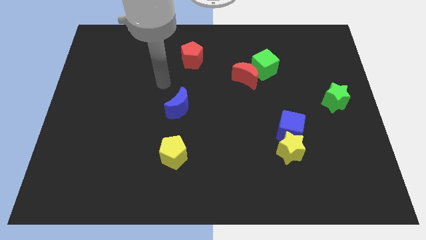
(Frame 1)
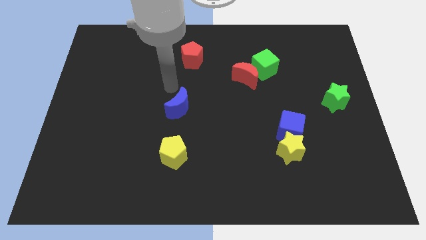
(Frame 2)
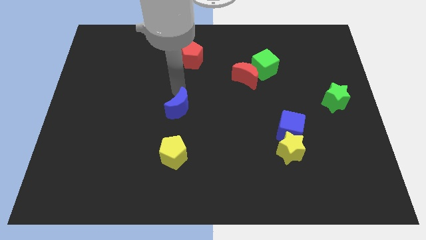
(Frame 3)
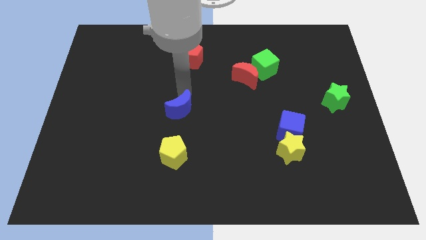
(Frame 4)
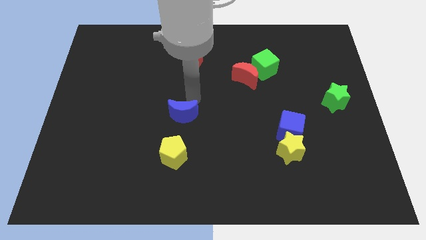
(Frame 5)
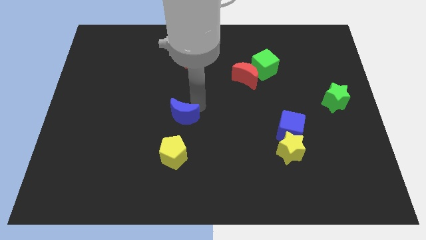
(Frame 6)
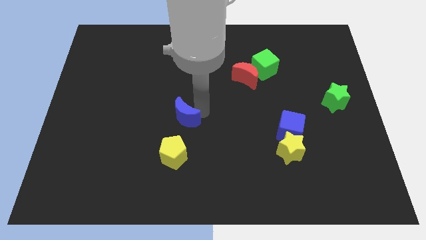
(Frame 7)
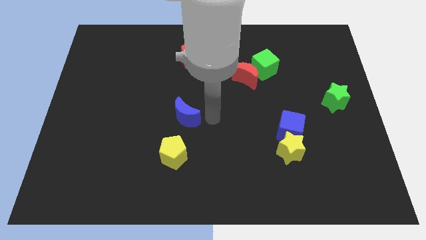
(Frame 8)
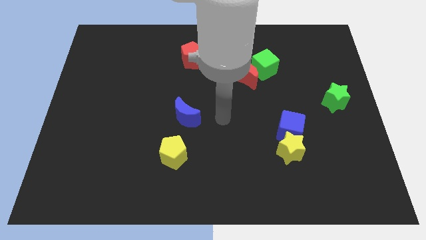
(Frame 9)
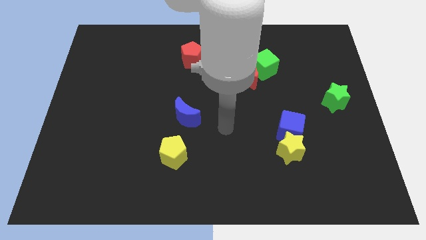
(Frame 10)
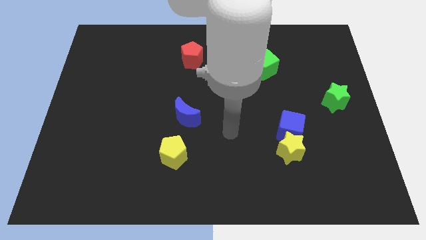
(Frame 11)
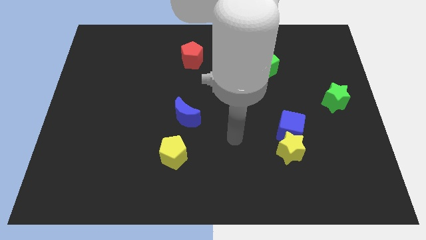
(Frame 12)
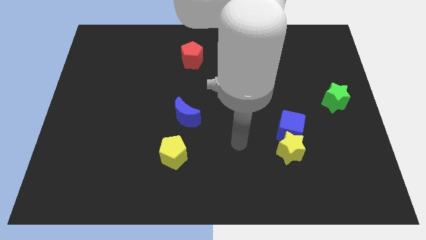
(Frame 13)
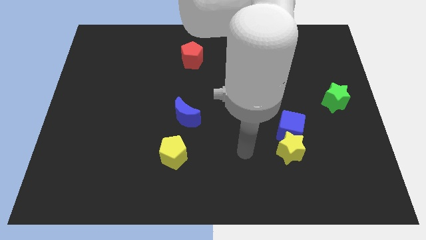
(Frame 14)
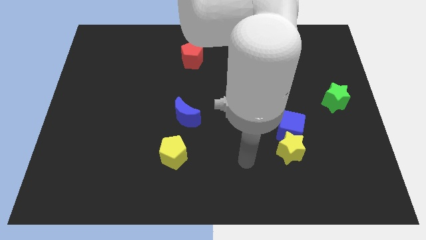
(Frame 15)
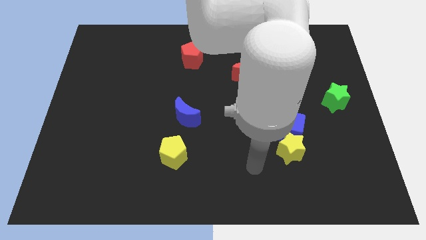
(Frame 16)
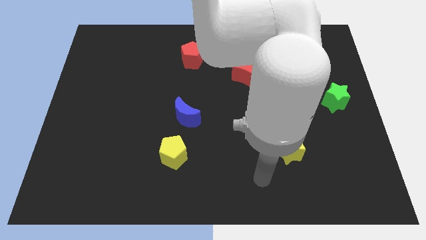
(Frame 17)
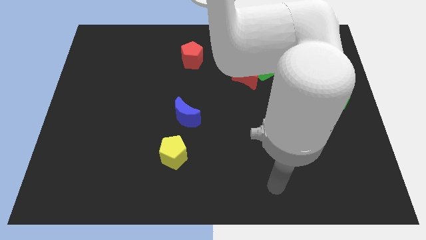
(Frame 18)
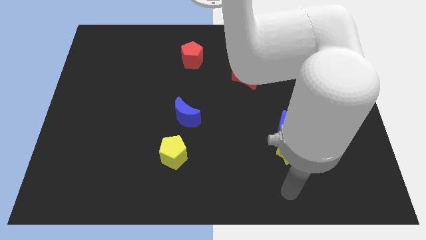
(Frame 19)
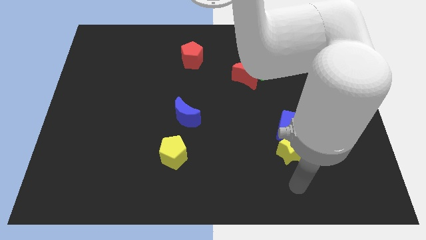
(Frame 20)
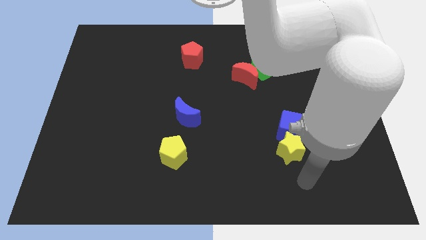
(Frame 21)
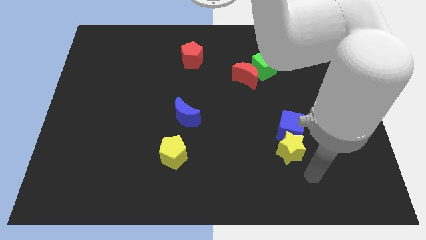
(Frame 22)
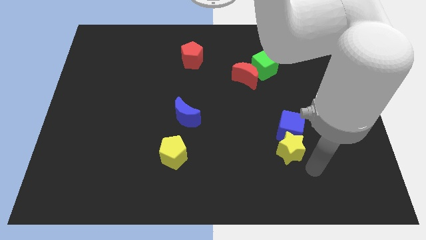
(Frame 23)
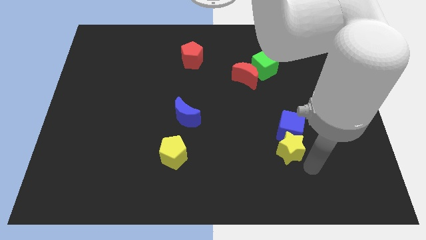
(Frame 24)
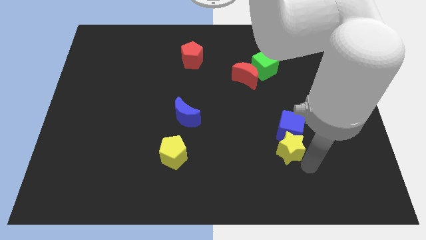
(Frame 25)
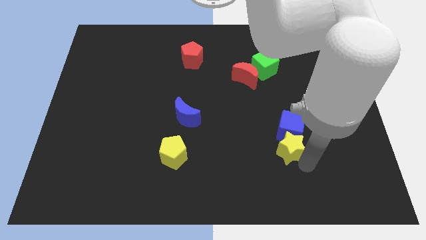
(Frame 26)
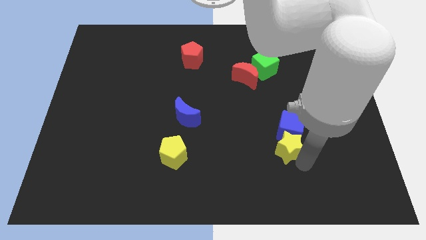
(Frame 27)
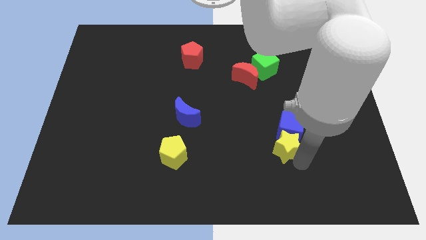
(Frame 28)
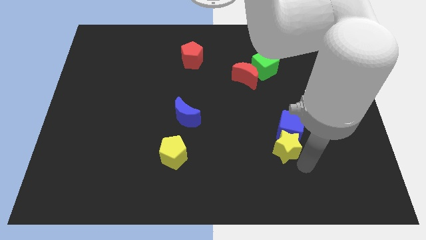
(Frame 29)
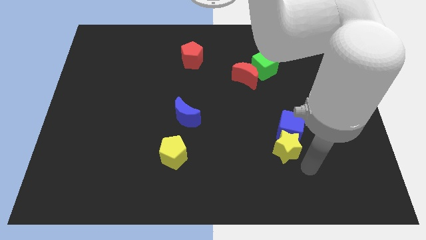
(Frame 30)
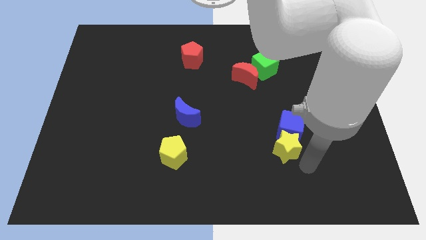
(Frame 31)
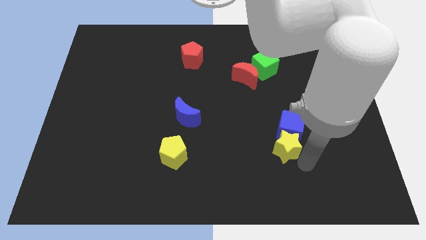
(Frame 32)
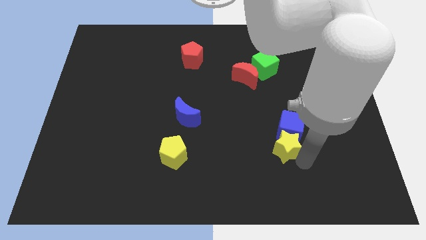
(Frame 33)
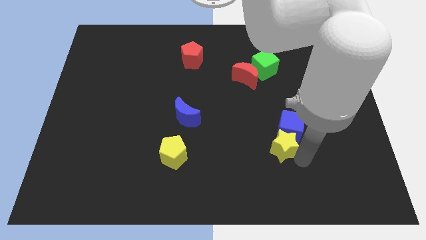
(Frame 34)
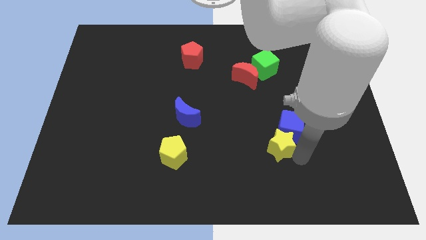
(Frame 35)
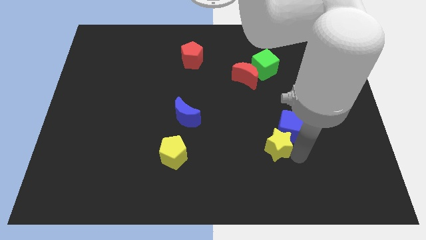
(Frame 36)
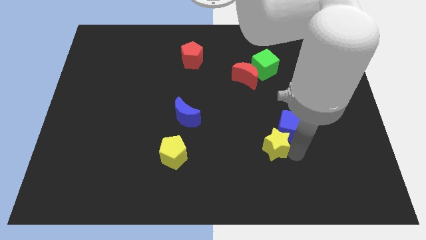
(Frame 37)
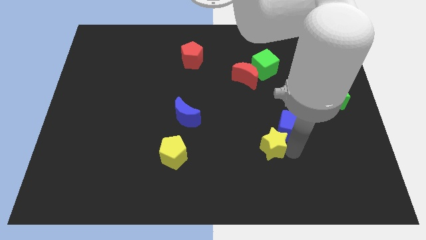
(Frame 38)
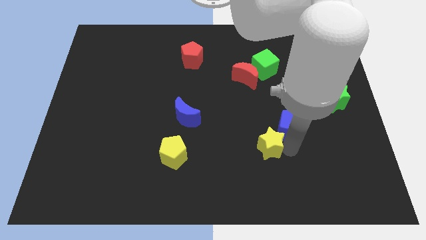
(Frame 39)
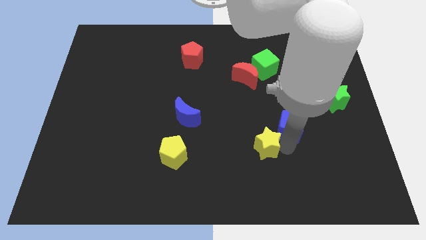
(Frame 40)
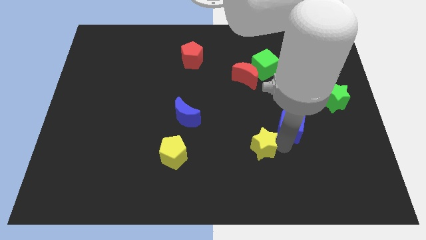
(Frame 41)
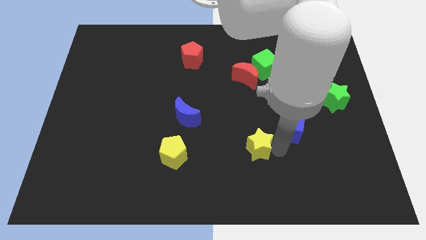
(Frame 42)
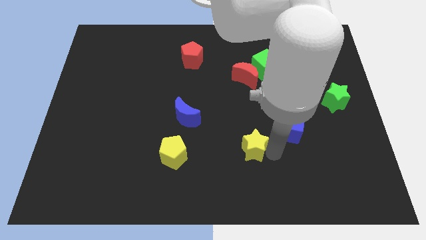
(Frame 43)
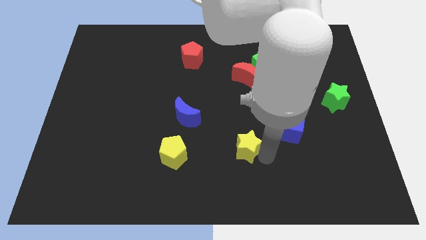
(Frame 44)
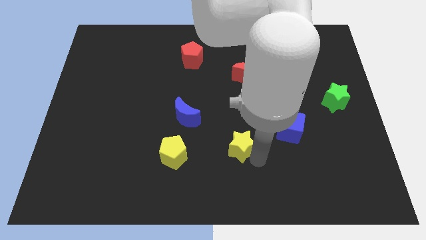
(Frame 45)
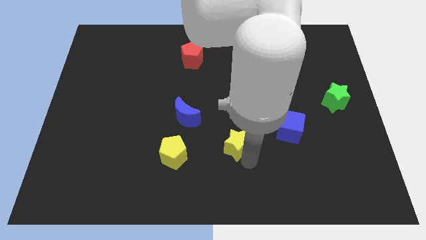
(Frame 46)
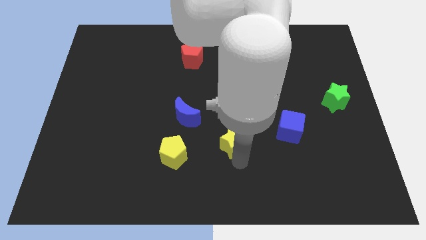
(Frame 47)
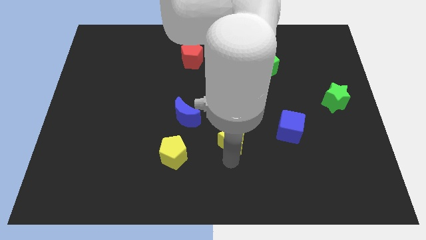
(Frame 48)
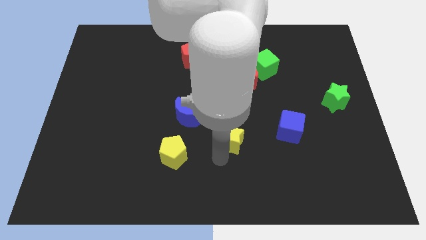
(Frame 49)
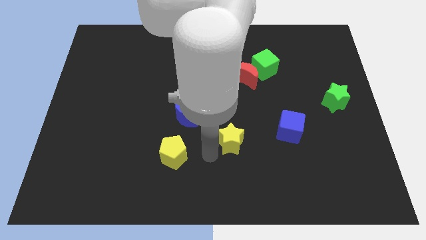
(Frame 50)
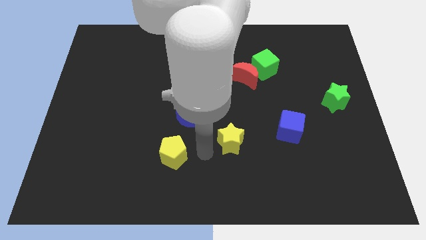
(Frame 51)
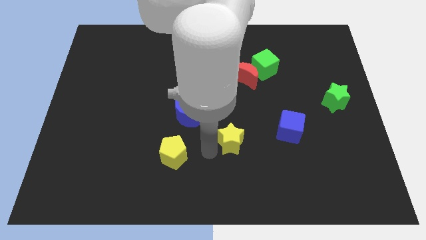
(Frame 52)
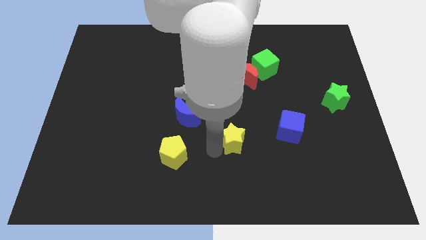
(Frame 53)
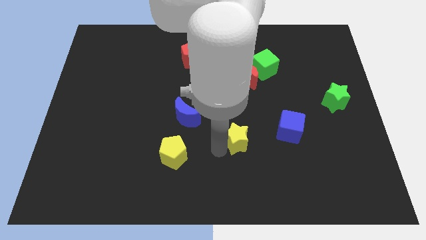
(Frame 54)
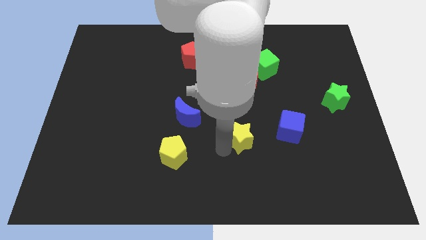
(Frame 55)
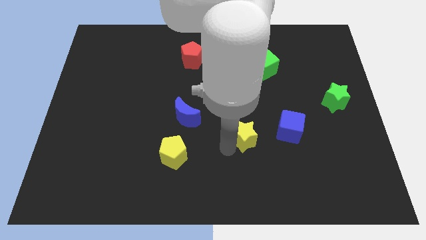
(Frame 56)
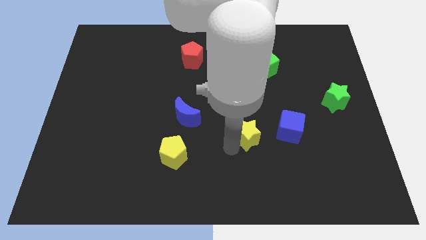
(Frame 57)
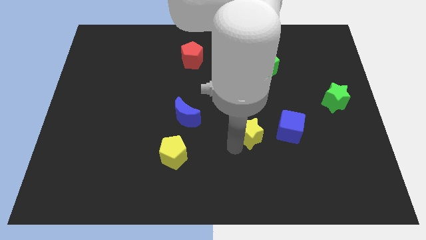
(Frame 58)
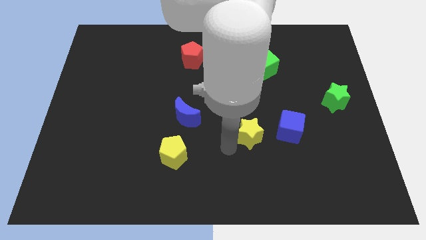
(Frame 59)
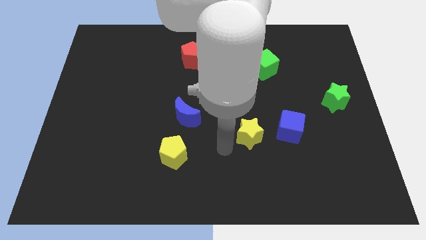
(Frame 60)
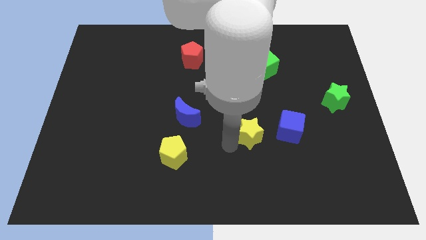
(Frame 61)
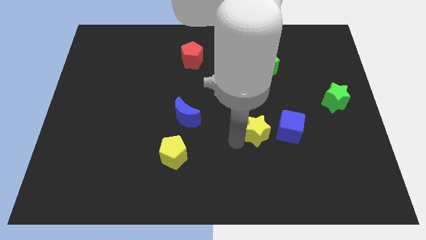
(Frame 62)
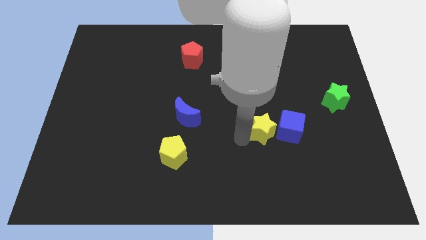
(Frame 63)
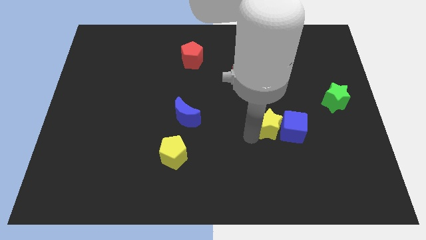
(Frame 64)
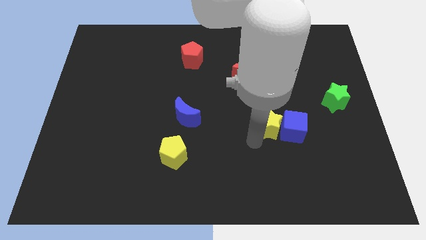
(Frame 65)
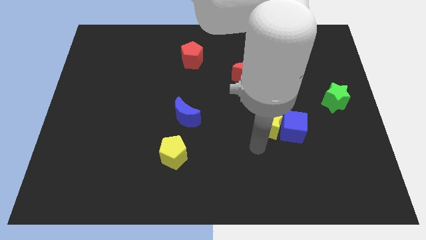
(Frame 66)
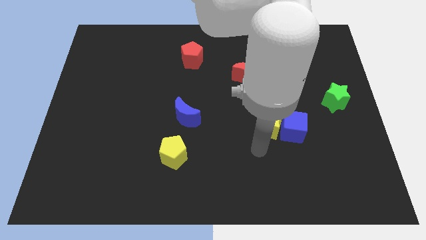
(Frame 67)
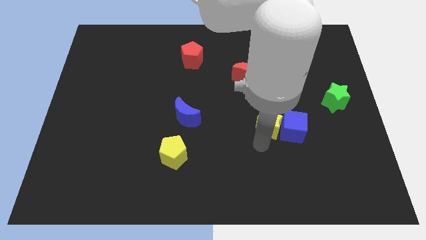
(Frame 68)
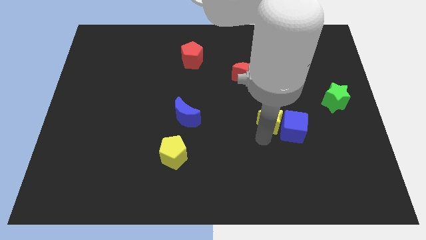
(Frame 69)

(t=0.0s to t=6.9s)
push the yellow star upwards a little

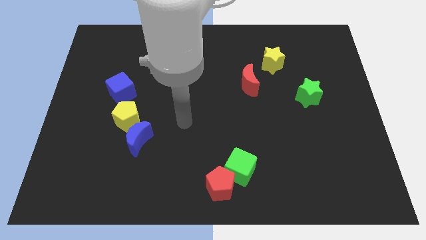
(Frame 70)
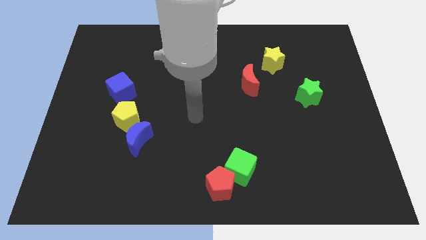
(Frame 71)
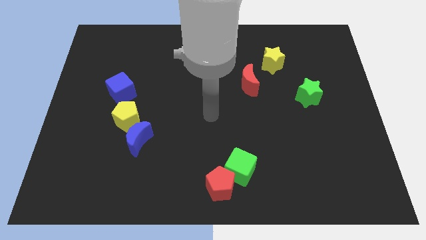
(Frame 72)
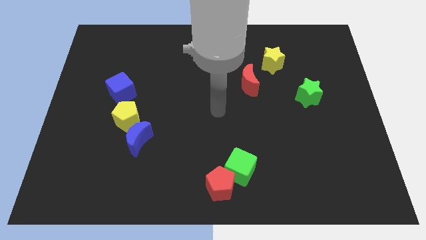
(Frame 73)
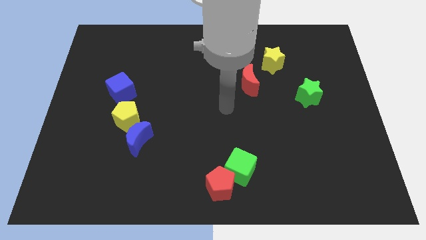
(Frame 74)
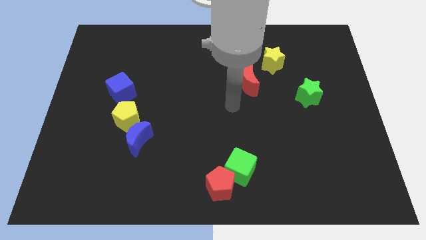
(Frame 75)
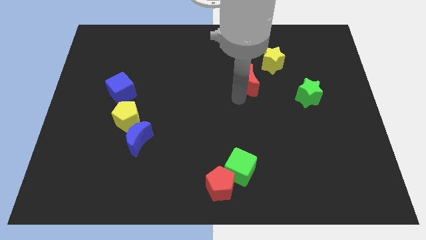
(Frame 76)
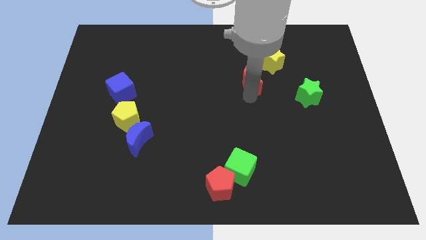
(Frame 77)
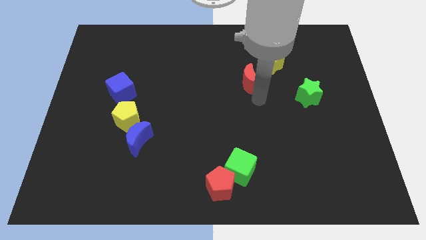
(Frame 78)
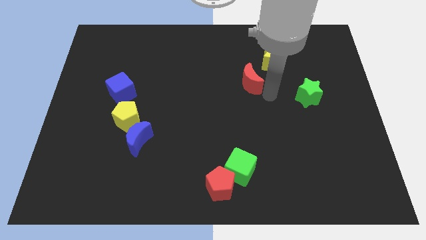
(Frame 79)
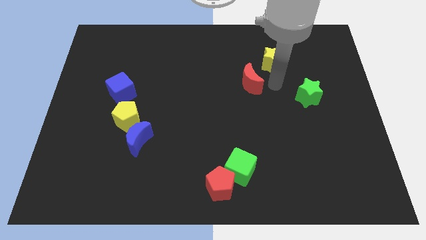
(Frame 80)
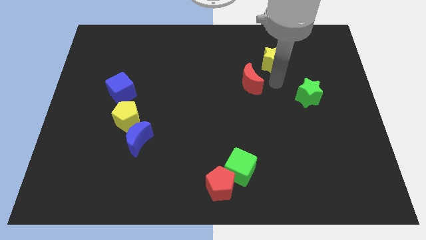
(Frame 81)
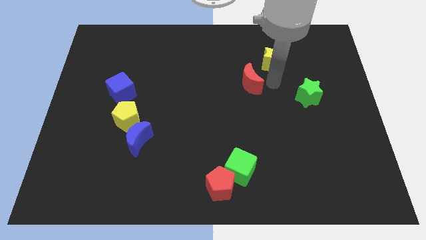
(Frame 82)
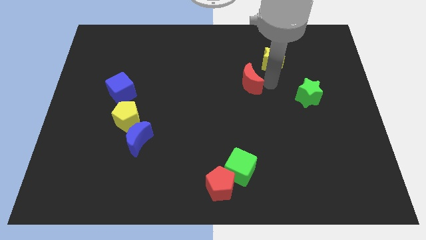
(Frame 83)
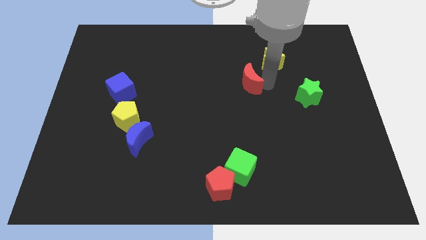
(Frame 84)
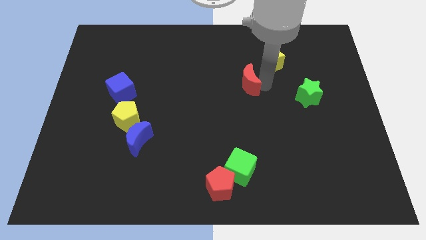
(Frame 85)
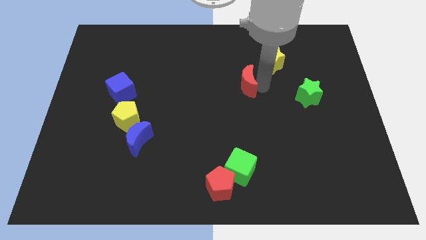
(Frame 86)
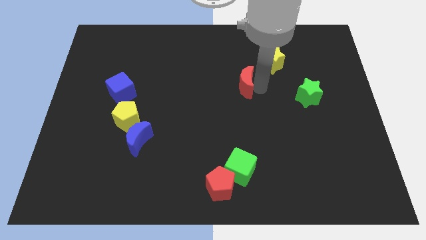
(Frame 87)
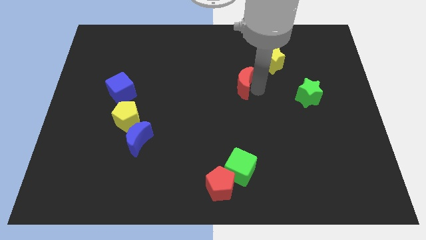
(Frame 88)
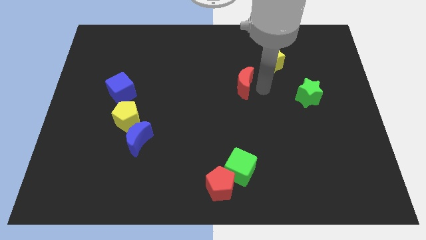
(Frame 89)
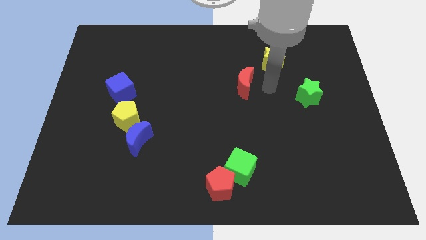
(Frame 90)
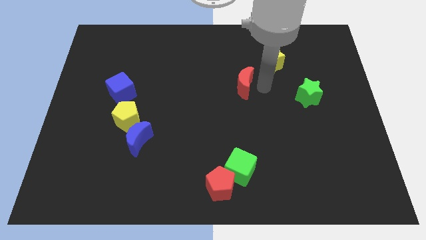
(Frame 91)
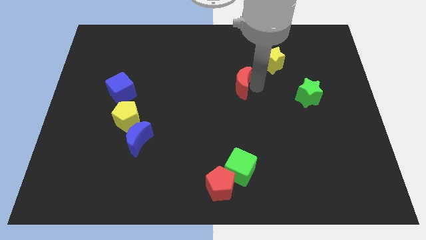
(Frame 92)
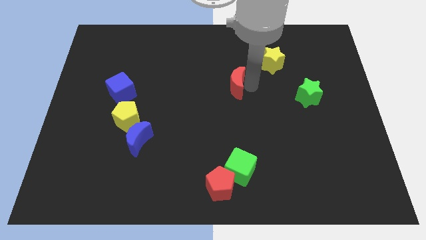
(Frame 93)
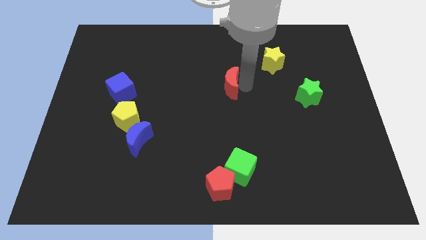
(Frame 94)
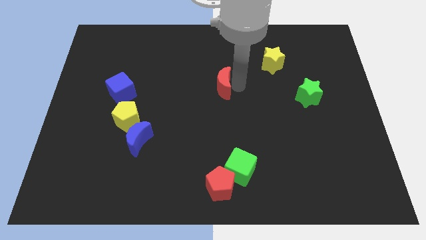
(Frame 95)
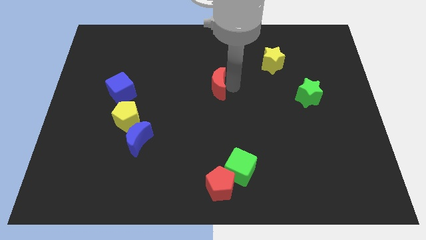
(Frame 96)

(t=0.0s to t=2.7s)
slide the red moon to the left somewhat
